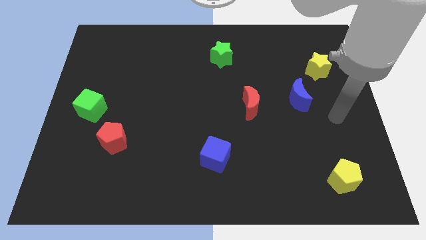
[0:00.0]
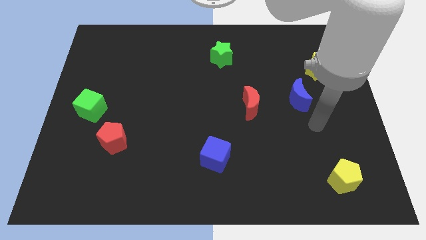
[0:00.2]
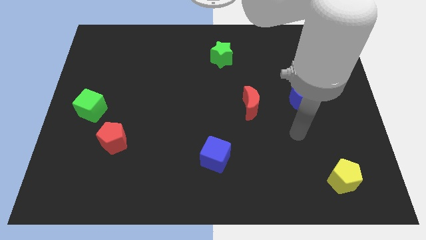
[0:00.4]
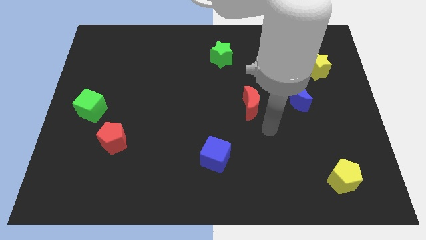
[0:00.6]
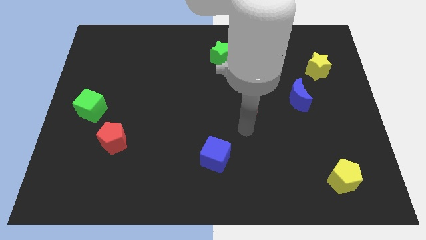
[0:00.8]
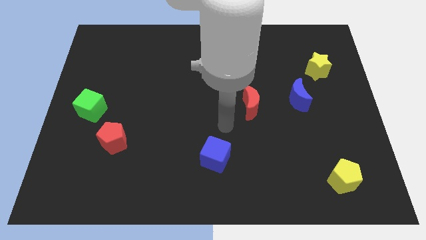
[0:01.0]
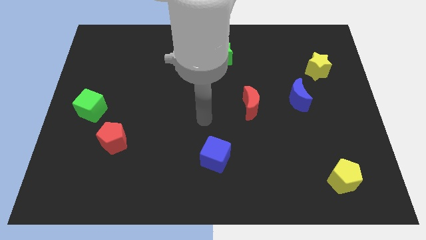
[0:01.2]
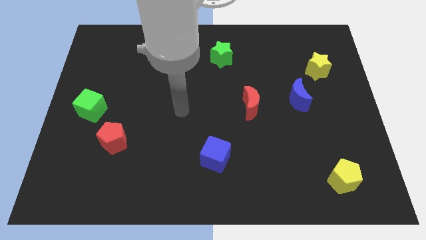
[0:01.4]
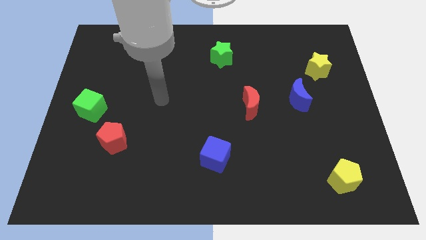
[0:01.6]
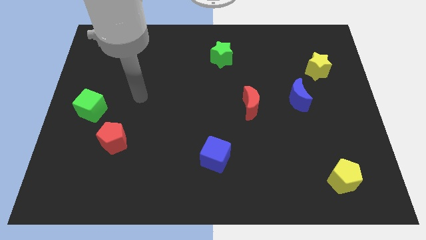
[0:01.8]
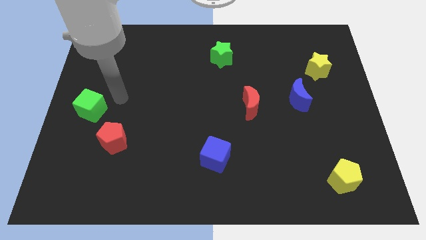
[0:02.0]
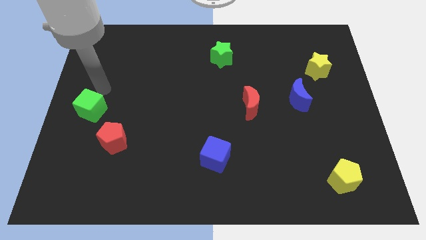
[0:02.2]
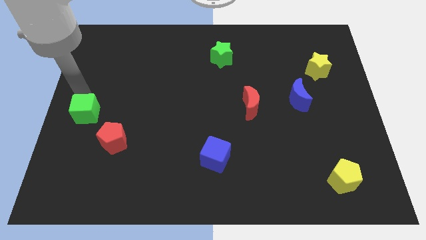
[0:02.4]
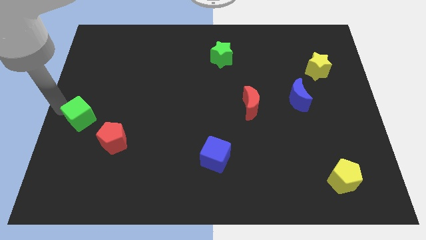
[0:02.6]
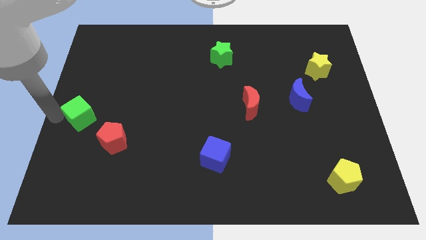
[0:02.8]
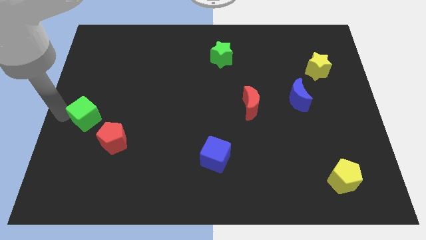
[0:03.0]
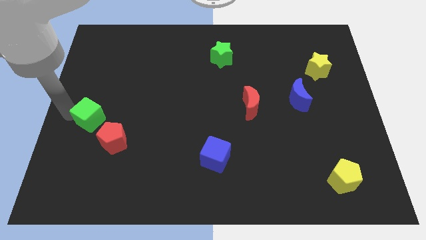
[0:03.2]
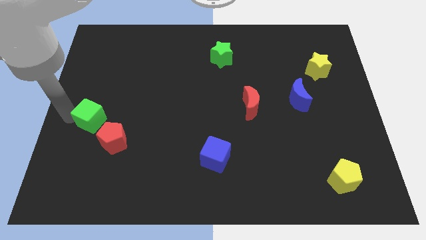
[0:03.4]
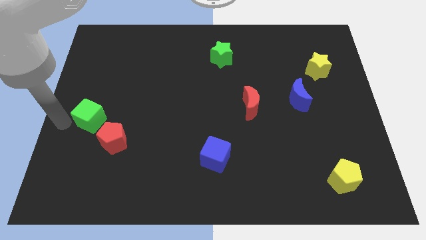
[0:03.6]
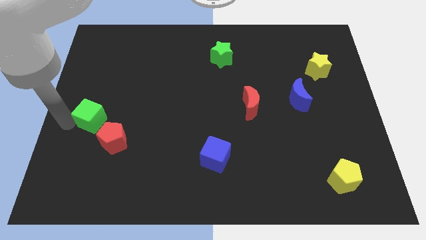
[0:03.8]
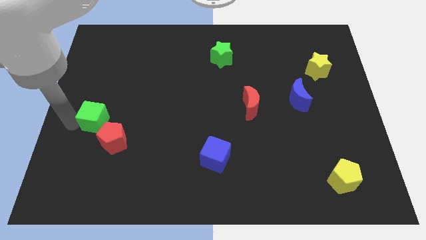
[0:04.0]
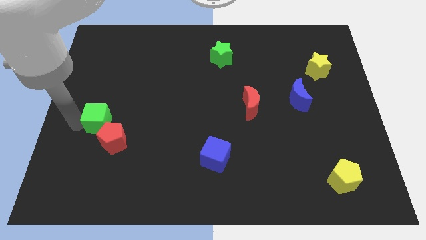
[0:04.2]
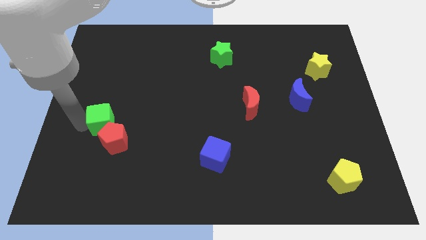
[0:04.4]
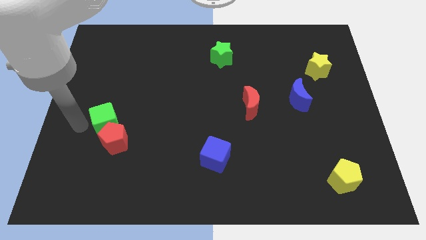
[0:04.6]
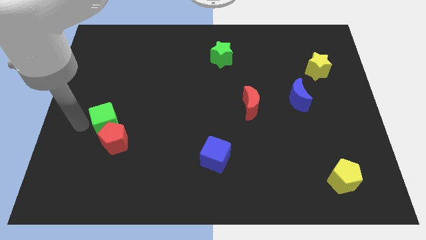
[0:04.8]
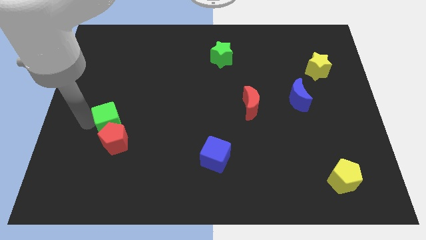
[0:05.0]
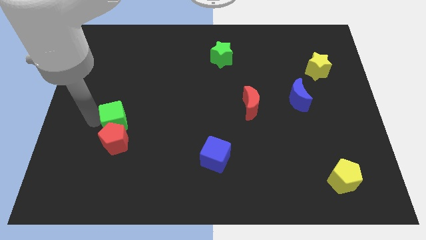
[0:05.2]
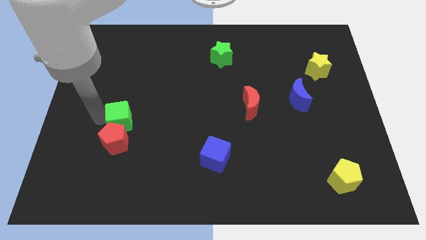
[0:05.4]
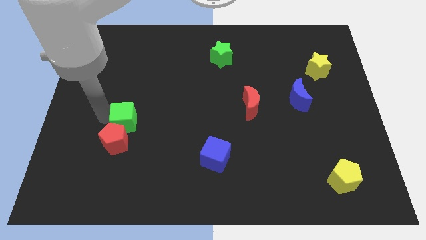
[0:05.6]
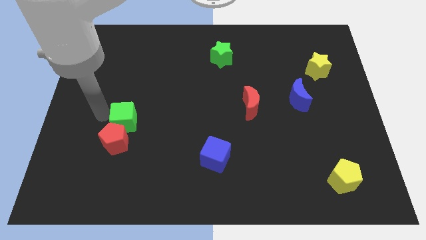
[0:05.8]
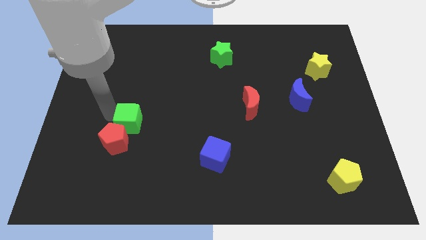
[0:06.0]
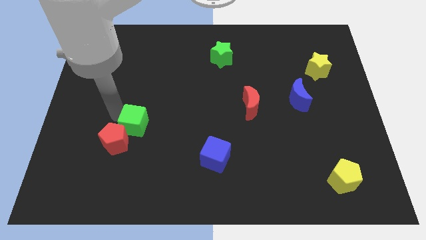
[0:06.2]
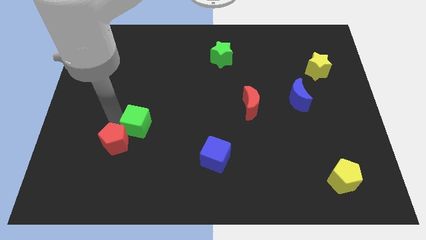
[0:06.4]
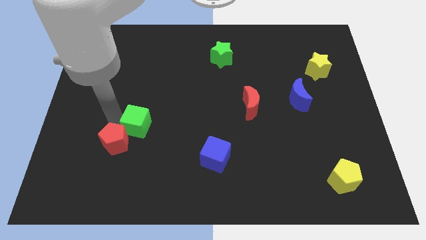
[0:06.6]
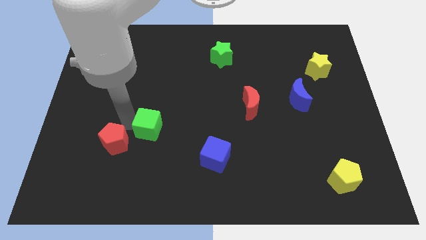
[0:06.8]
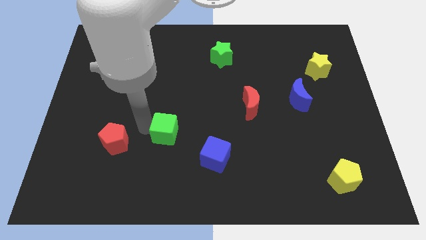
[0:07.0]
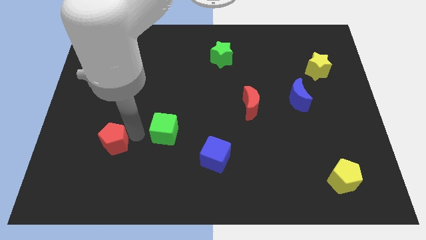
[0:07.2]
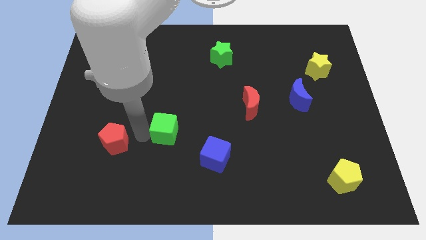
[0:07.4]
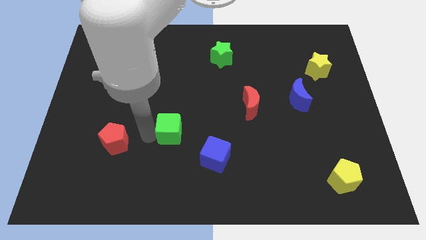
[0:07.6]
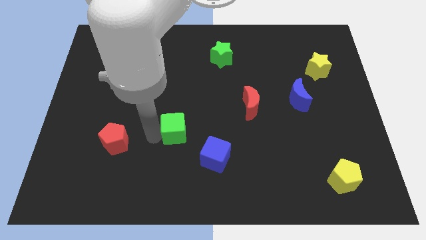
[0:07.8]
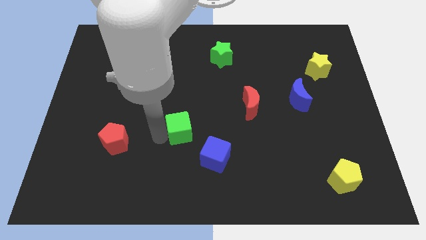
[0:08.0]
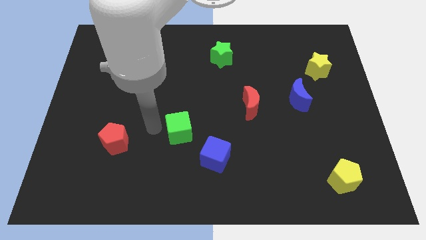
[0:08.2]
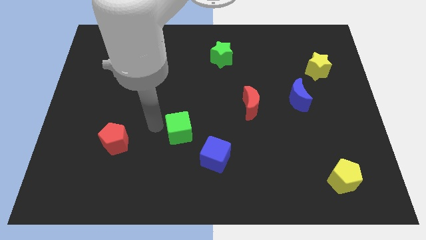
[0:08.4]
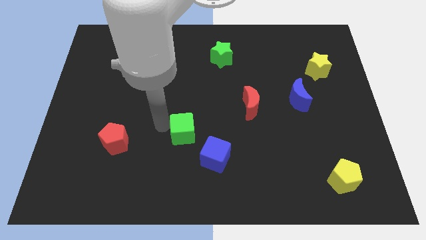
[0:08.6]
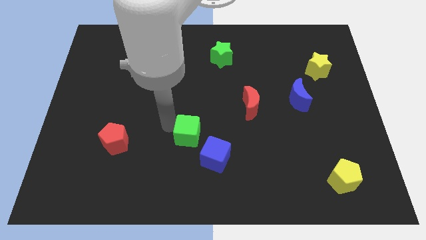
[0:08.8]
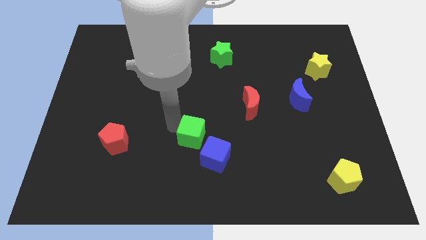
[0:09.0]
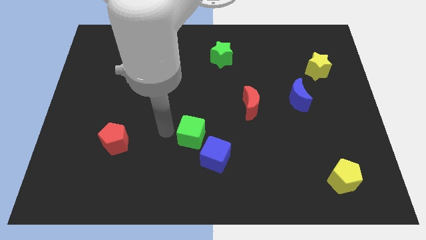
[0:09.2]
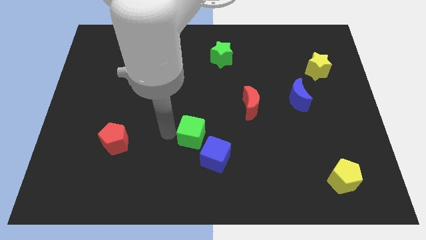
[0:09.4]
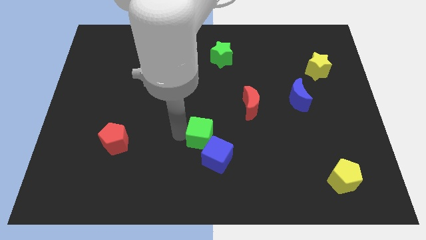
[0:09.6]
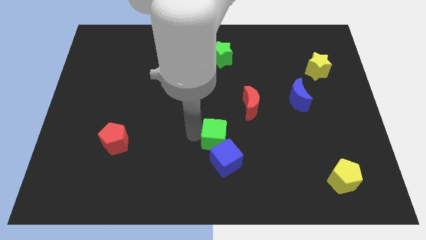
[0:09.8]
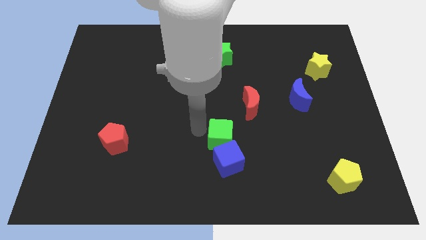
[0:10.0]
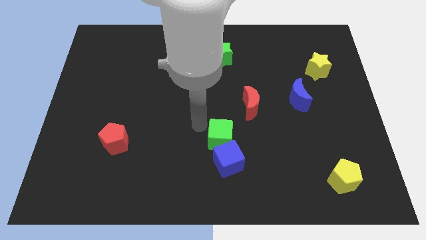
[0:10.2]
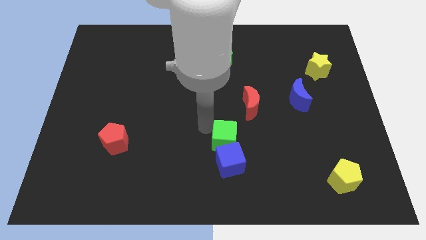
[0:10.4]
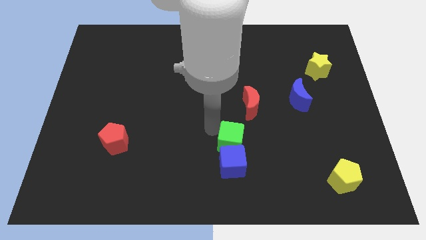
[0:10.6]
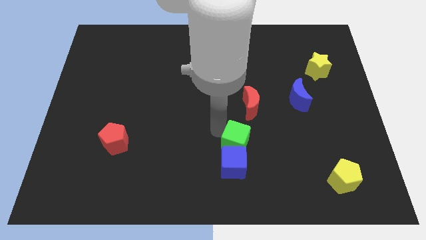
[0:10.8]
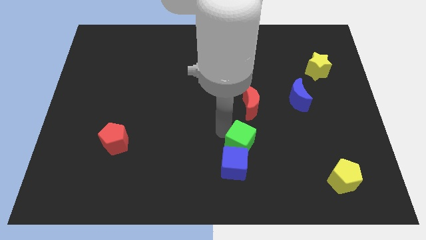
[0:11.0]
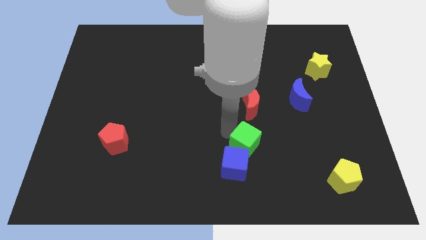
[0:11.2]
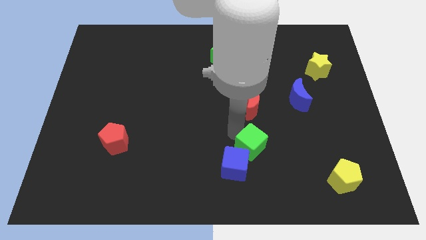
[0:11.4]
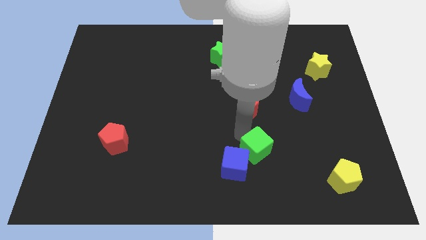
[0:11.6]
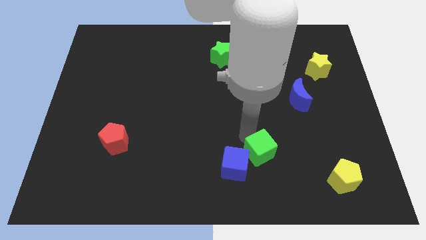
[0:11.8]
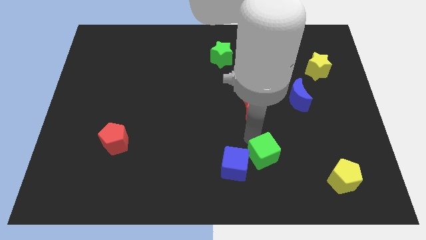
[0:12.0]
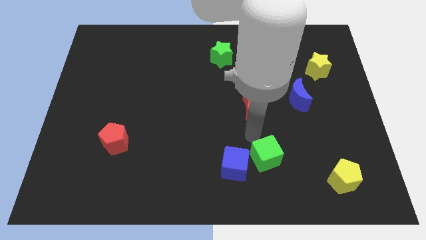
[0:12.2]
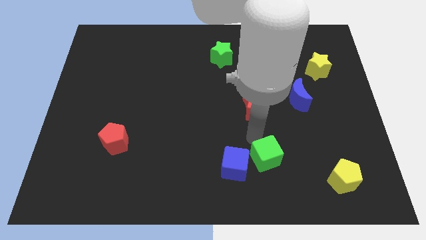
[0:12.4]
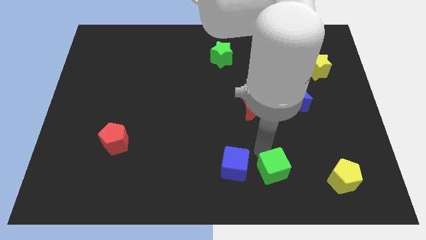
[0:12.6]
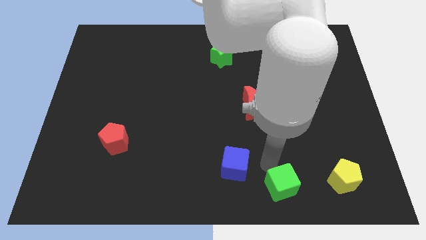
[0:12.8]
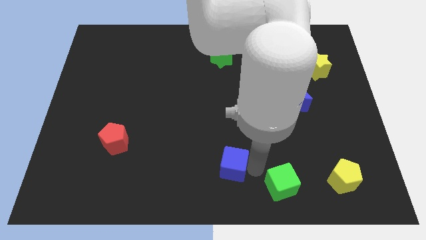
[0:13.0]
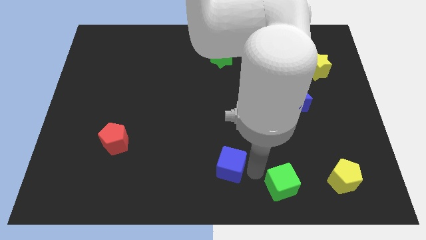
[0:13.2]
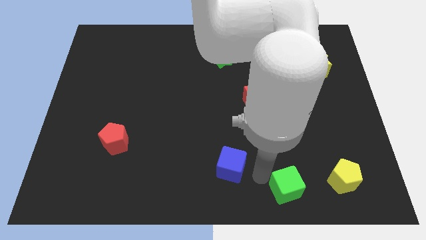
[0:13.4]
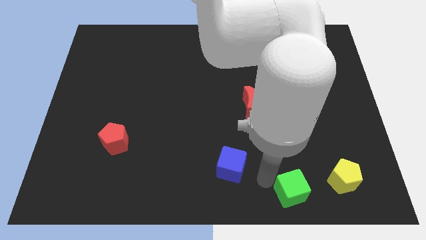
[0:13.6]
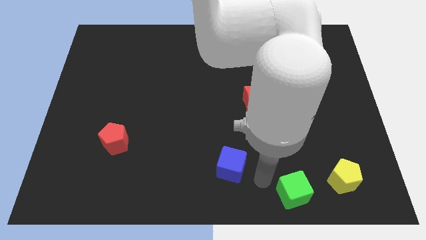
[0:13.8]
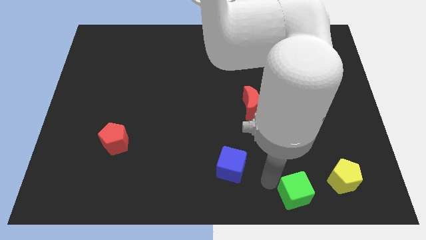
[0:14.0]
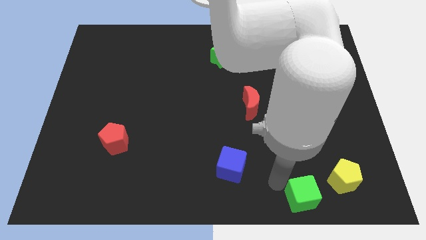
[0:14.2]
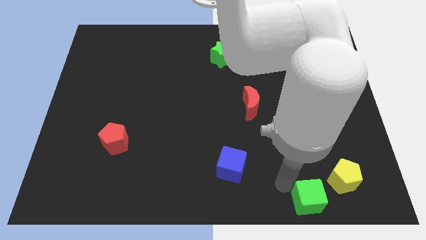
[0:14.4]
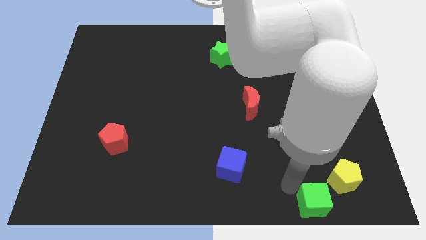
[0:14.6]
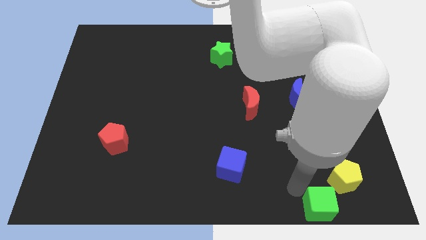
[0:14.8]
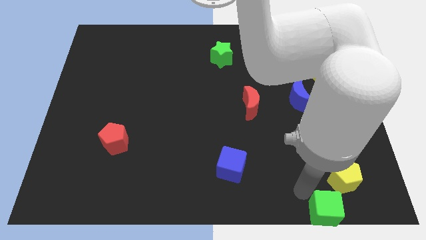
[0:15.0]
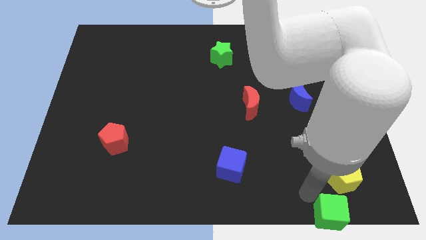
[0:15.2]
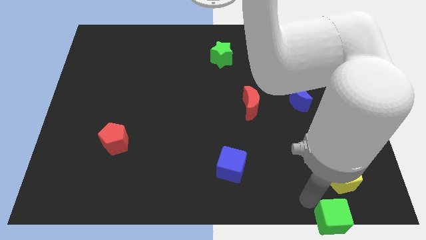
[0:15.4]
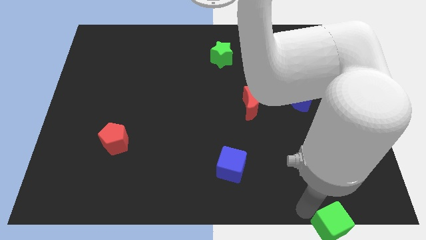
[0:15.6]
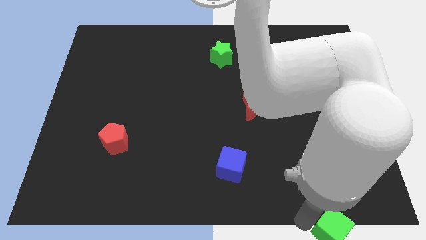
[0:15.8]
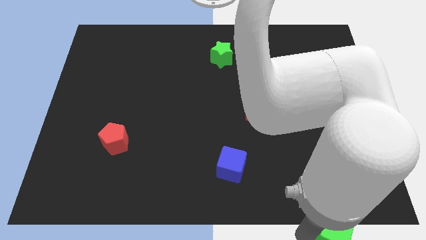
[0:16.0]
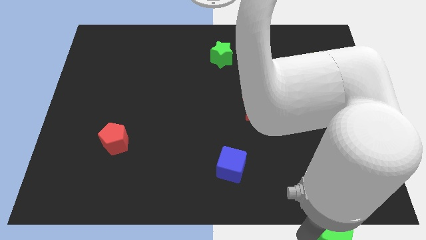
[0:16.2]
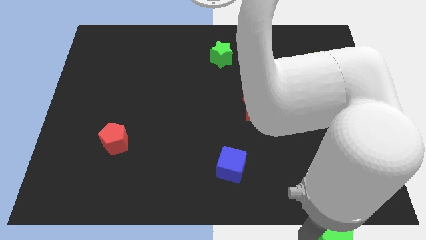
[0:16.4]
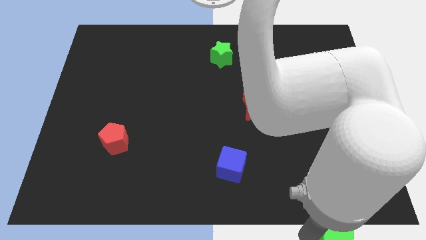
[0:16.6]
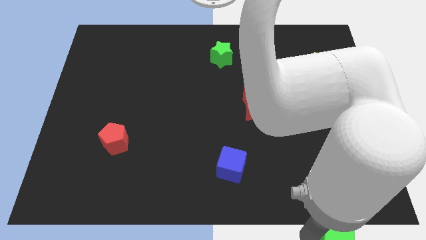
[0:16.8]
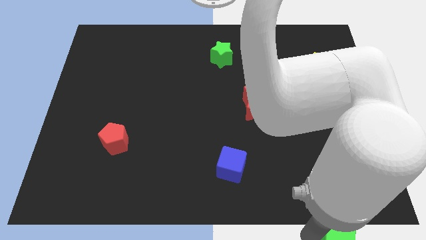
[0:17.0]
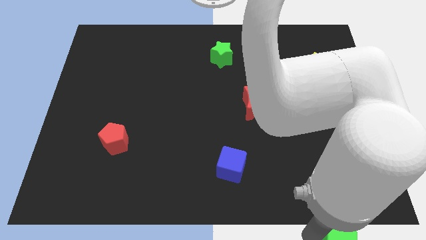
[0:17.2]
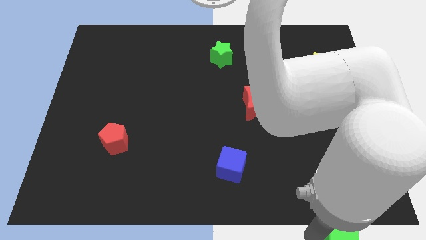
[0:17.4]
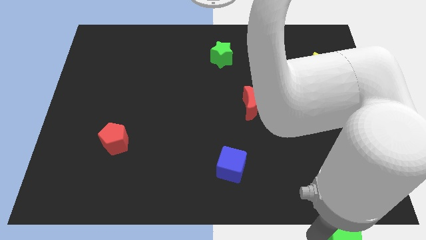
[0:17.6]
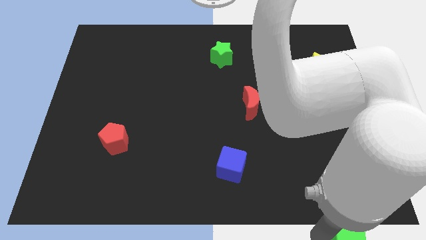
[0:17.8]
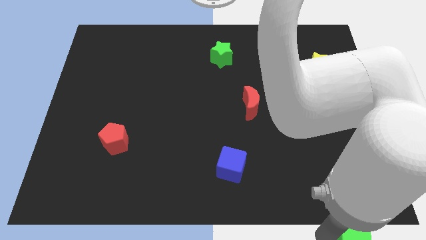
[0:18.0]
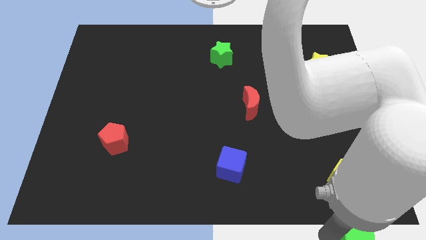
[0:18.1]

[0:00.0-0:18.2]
move the green cube to the lower right corner
